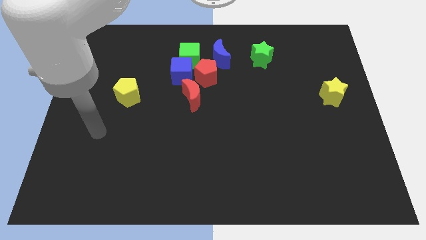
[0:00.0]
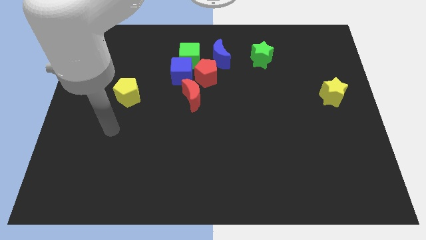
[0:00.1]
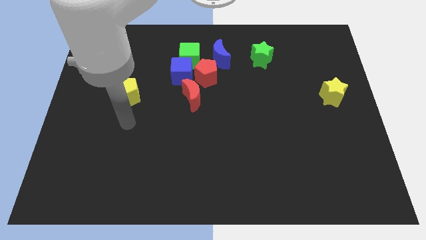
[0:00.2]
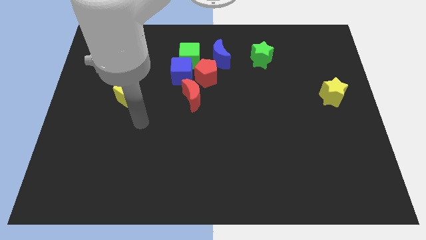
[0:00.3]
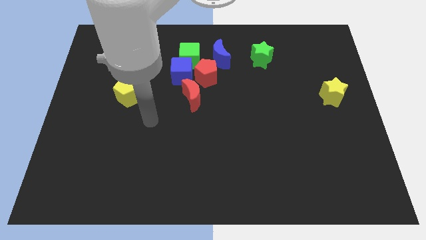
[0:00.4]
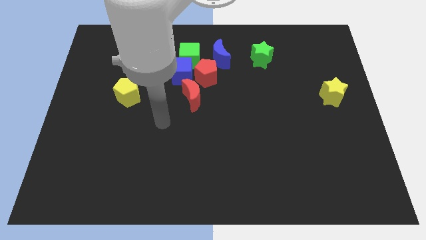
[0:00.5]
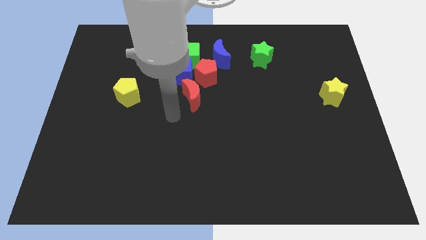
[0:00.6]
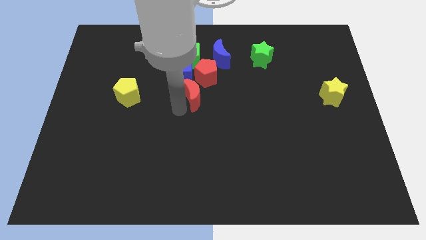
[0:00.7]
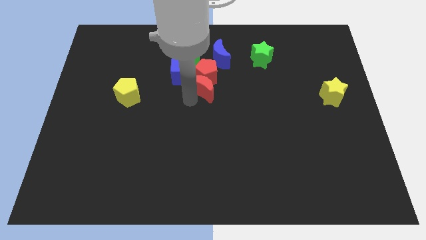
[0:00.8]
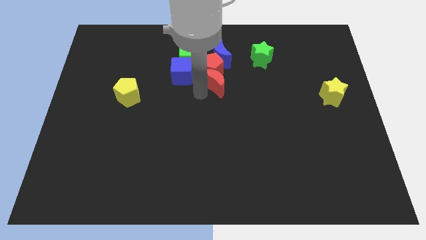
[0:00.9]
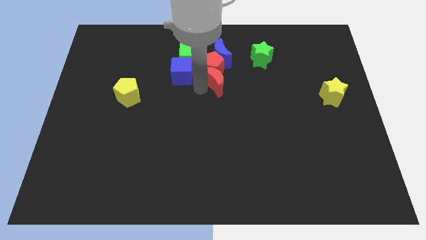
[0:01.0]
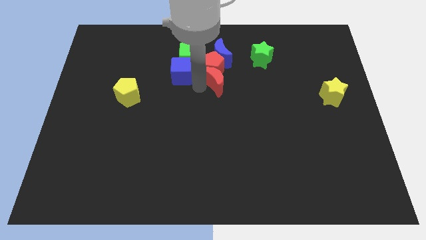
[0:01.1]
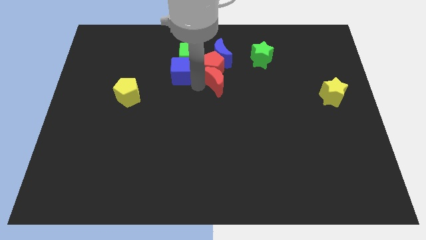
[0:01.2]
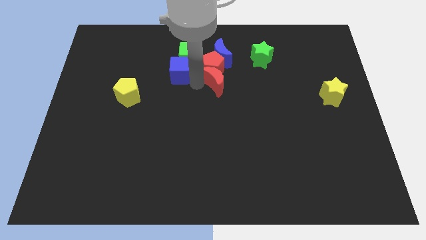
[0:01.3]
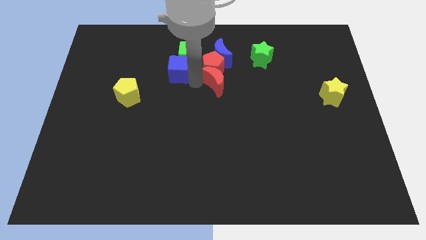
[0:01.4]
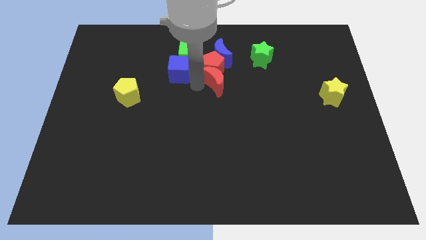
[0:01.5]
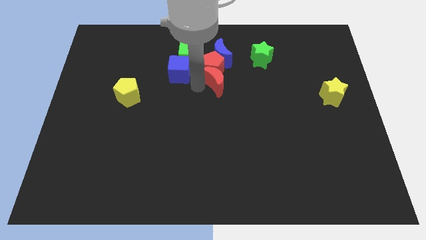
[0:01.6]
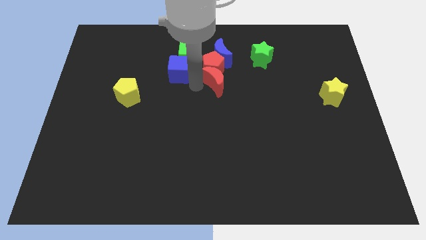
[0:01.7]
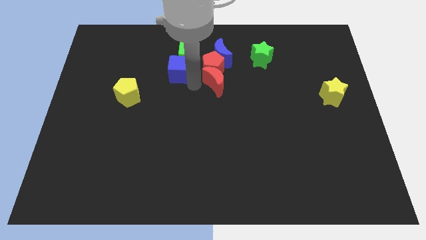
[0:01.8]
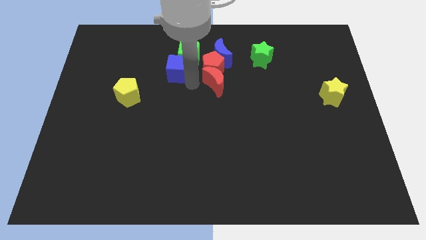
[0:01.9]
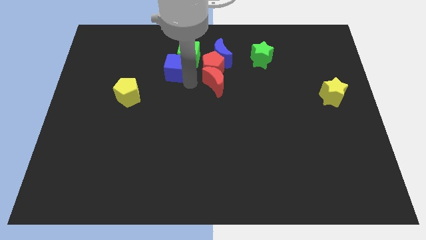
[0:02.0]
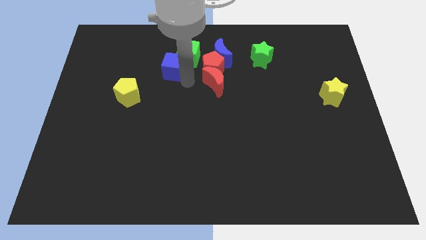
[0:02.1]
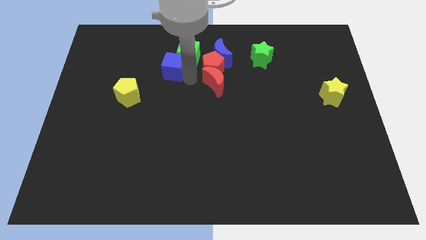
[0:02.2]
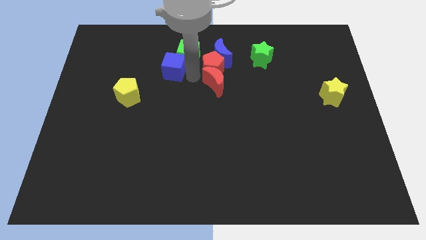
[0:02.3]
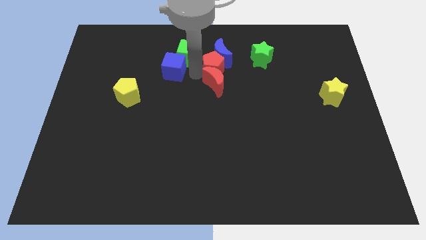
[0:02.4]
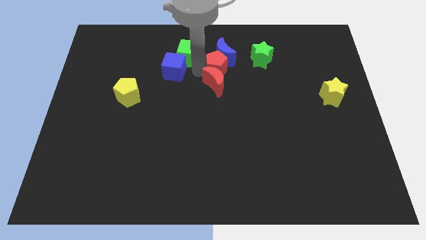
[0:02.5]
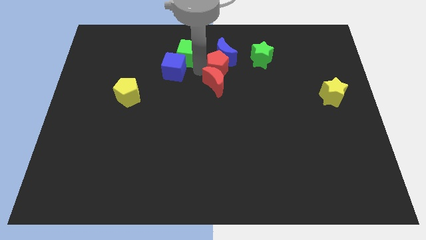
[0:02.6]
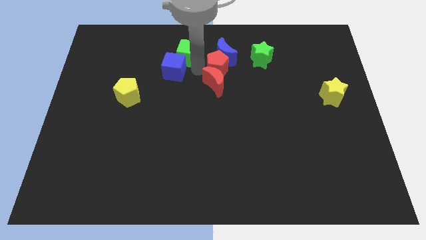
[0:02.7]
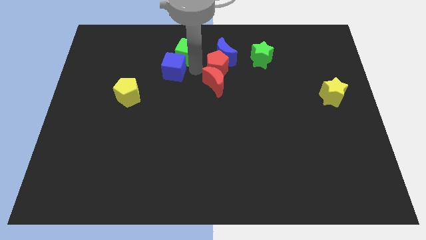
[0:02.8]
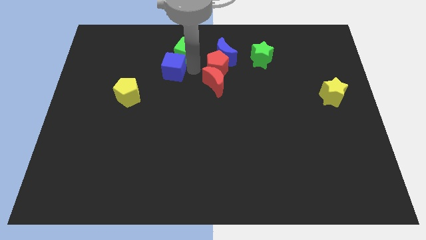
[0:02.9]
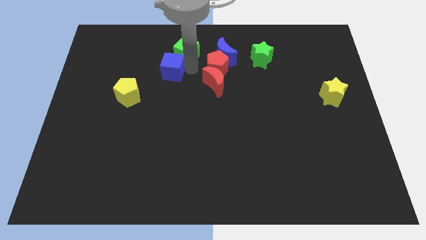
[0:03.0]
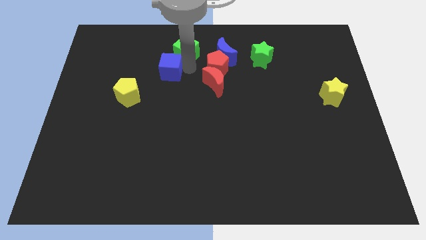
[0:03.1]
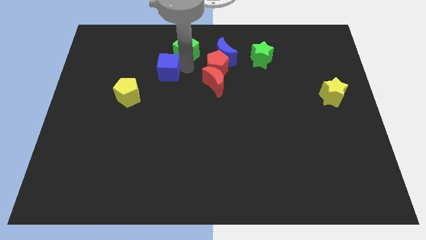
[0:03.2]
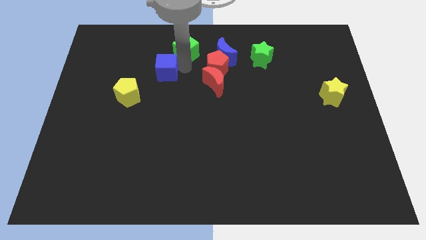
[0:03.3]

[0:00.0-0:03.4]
move the blue cube away from the clump

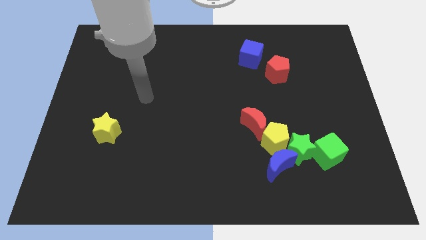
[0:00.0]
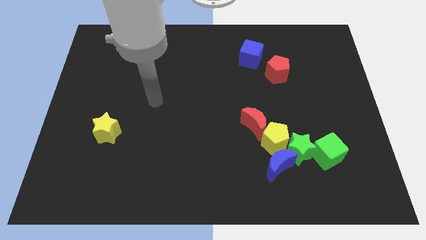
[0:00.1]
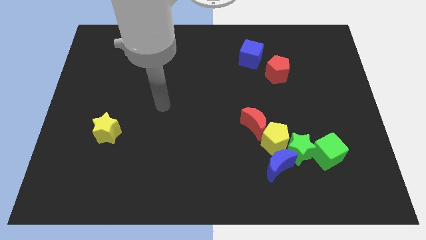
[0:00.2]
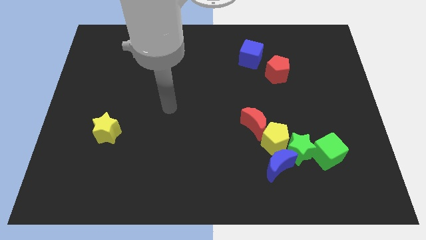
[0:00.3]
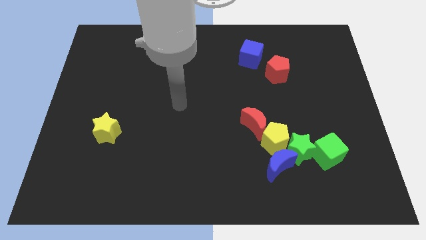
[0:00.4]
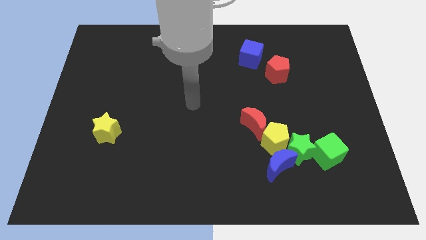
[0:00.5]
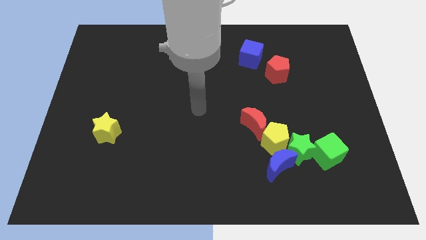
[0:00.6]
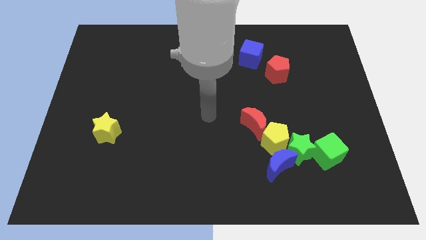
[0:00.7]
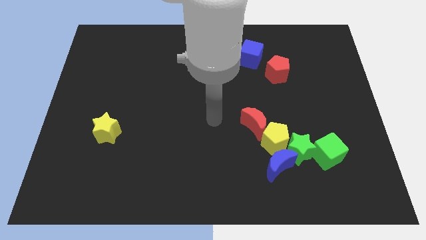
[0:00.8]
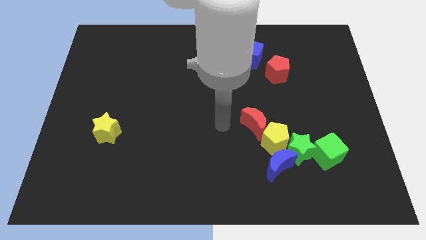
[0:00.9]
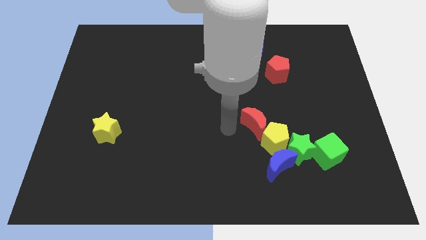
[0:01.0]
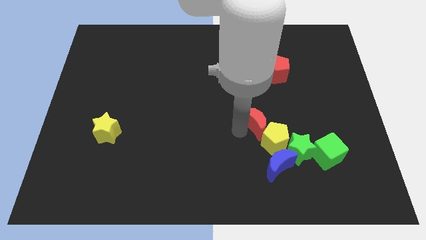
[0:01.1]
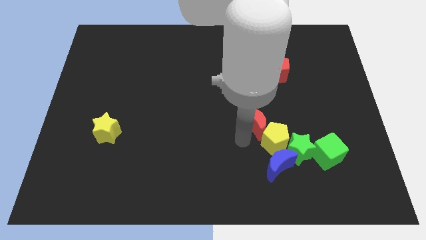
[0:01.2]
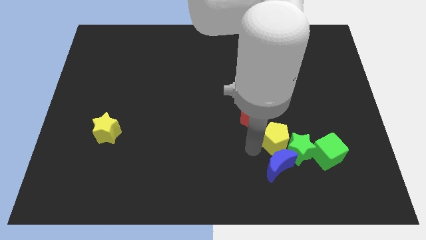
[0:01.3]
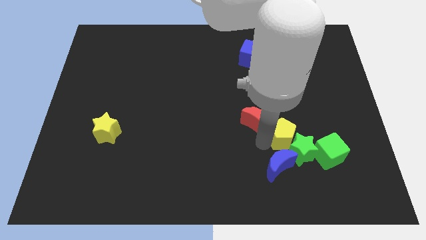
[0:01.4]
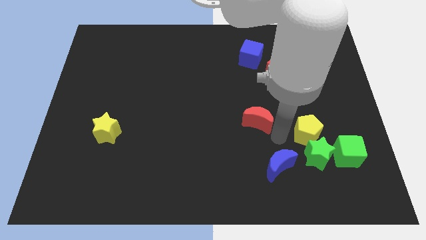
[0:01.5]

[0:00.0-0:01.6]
separate the red moon from the yellow pentagon

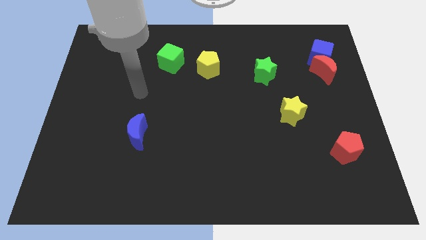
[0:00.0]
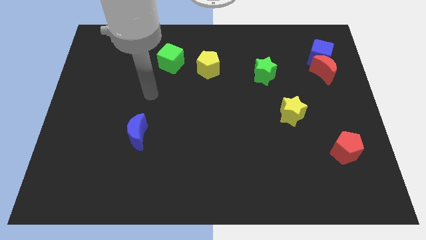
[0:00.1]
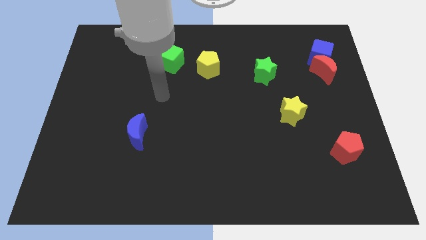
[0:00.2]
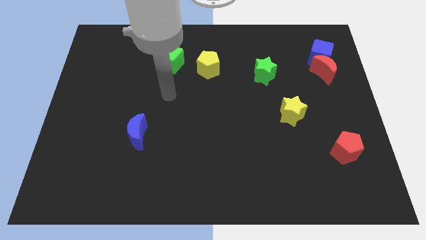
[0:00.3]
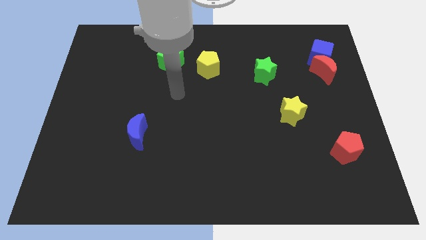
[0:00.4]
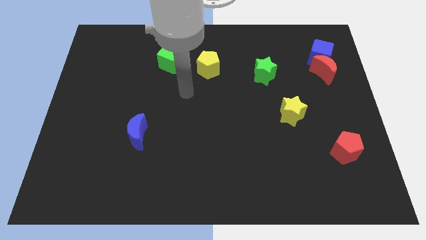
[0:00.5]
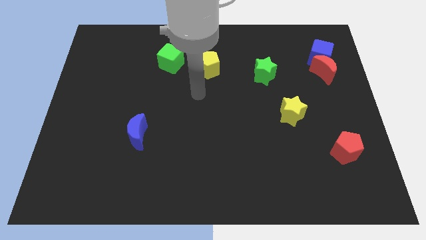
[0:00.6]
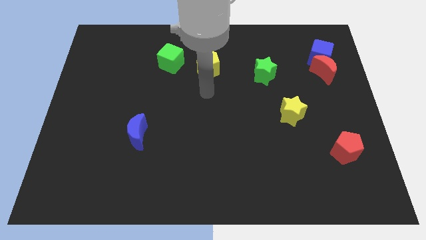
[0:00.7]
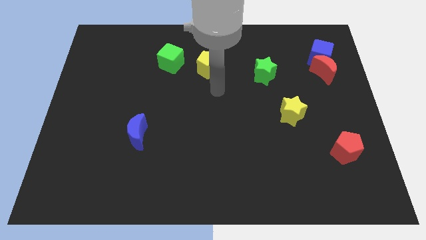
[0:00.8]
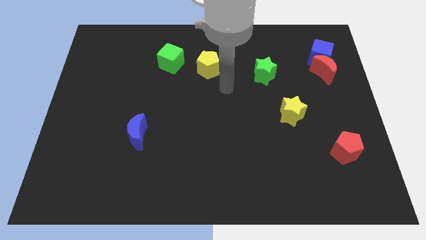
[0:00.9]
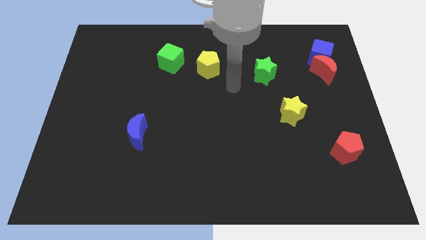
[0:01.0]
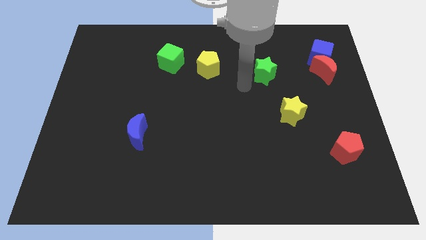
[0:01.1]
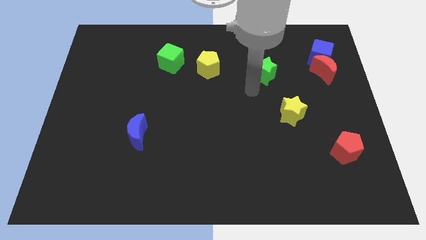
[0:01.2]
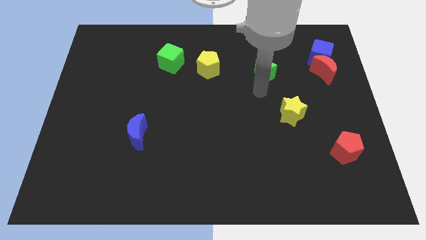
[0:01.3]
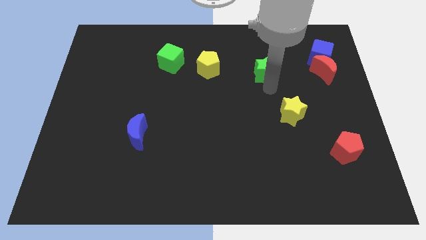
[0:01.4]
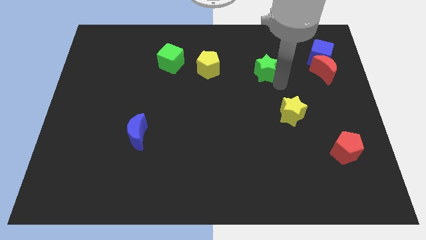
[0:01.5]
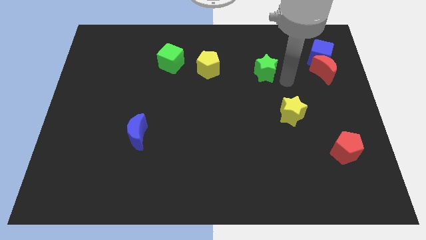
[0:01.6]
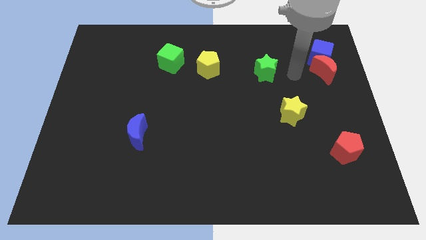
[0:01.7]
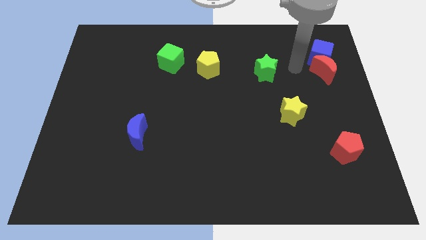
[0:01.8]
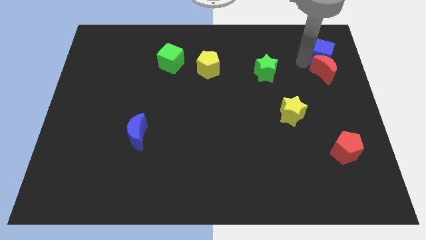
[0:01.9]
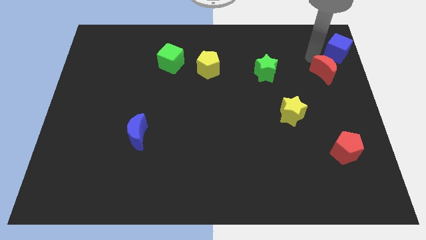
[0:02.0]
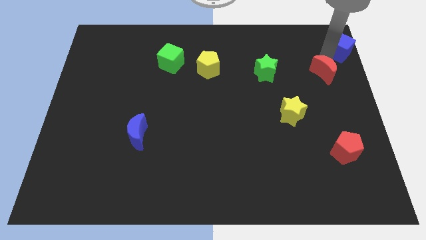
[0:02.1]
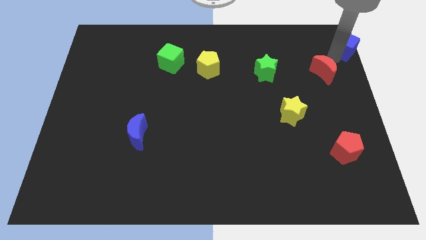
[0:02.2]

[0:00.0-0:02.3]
move the red moon away from the blue cube

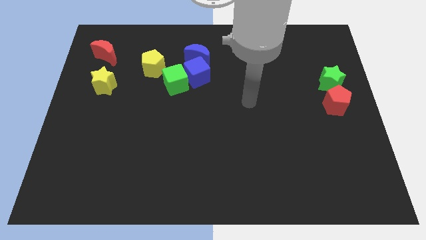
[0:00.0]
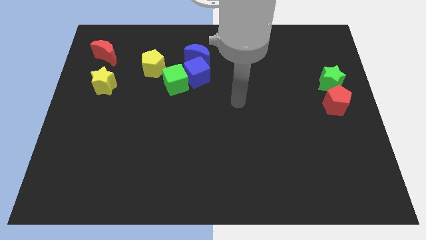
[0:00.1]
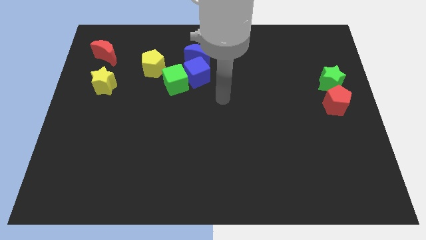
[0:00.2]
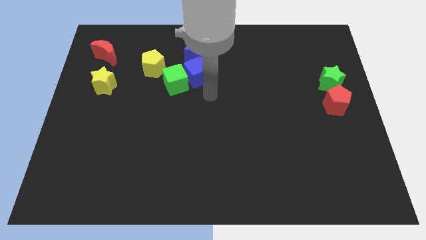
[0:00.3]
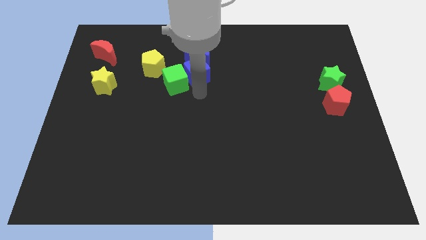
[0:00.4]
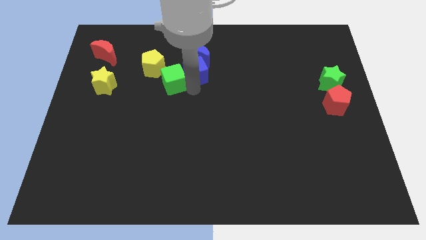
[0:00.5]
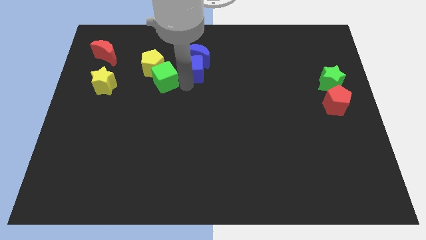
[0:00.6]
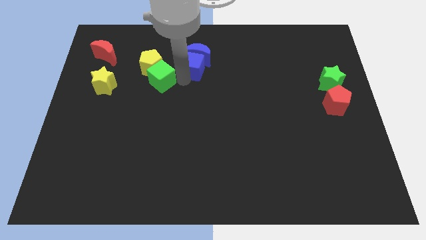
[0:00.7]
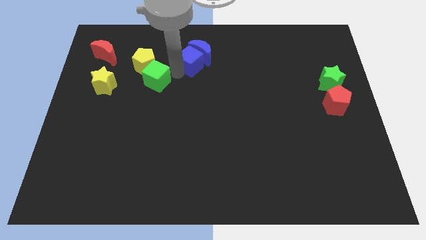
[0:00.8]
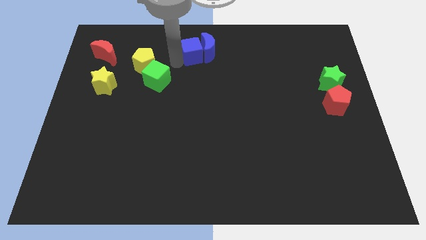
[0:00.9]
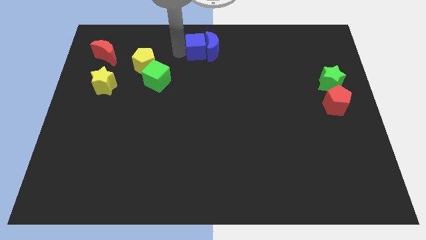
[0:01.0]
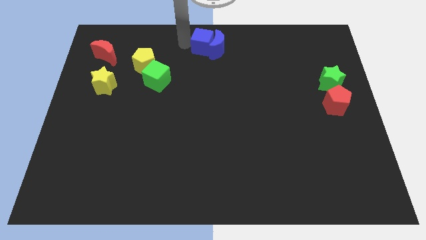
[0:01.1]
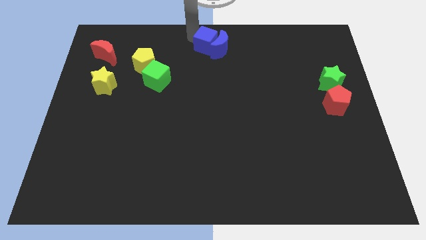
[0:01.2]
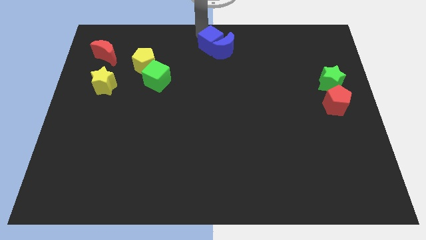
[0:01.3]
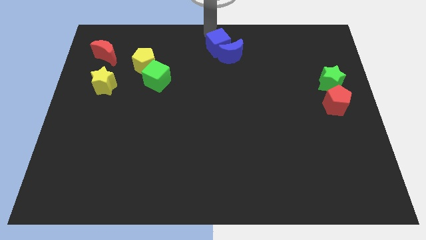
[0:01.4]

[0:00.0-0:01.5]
pull the blue cube apart from the green cube and blue moon

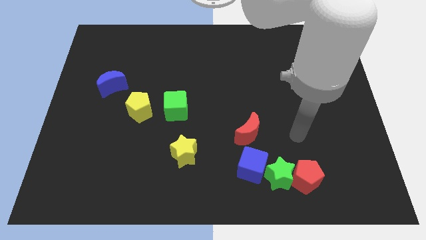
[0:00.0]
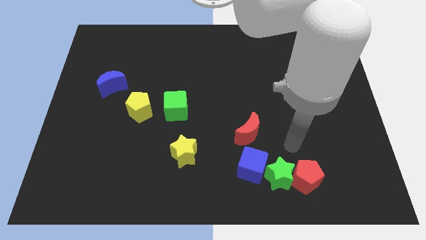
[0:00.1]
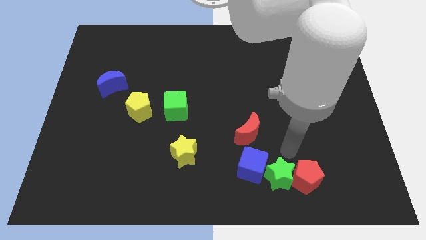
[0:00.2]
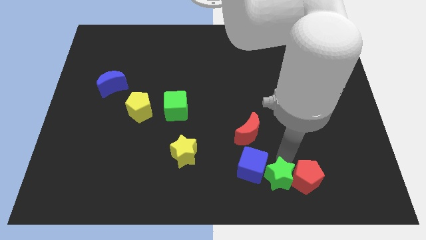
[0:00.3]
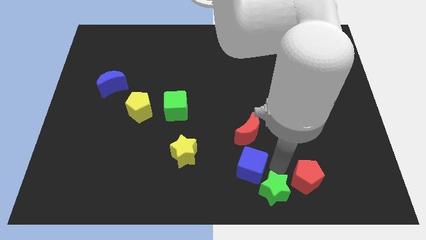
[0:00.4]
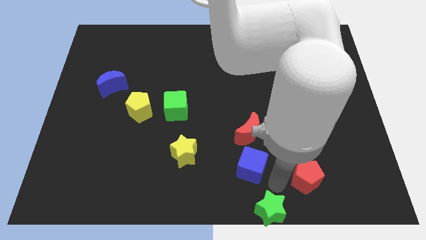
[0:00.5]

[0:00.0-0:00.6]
pull the red pentagon apart from the green star
